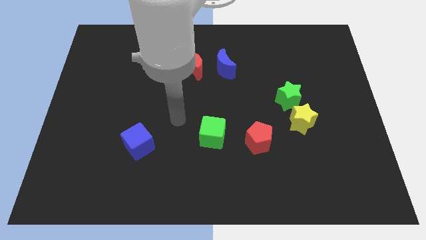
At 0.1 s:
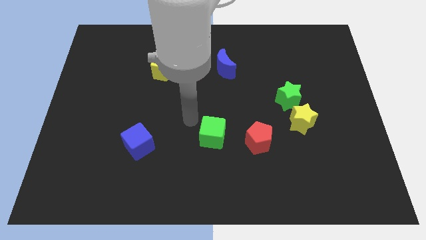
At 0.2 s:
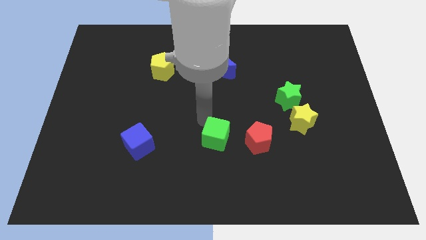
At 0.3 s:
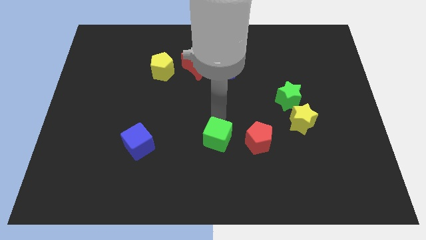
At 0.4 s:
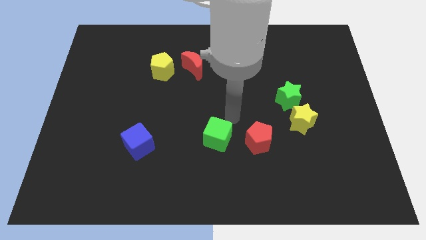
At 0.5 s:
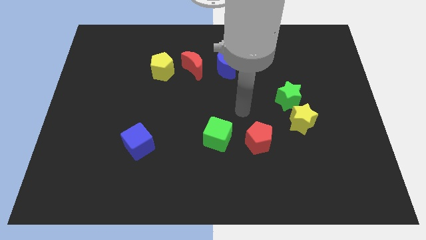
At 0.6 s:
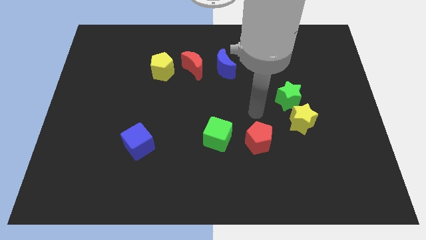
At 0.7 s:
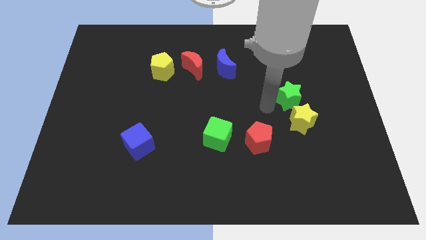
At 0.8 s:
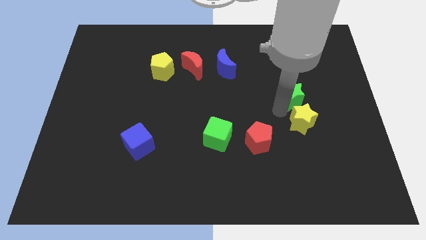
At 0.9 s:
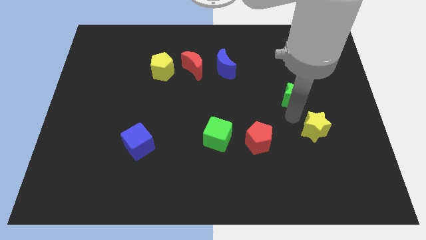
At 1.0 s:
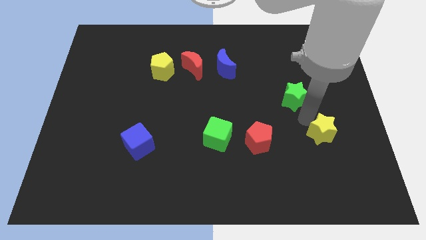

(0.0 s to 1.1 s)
pull the green star apart from the yellow star

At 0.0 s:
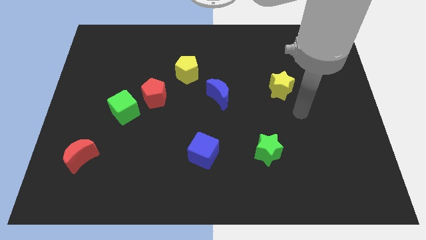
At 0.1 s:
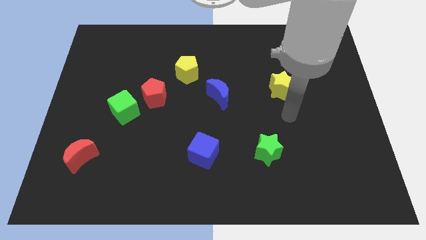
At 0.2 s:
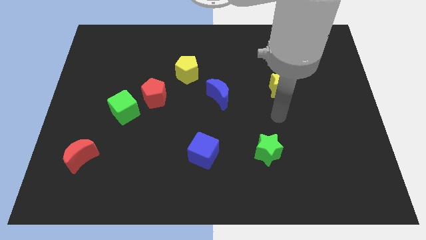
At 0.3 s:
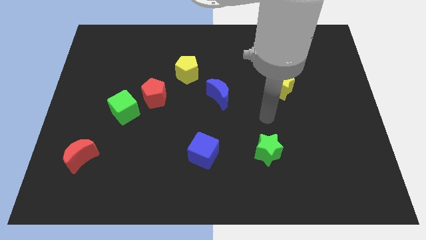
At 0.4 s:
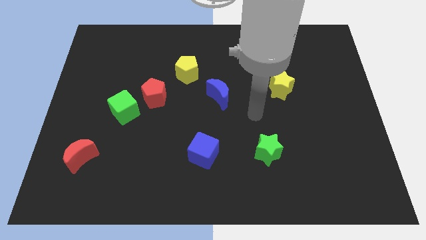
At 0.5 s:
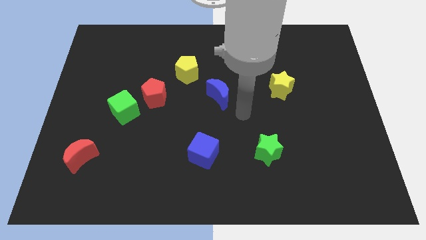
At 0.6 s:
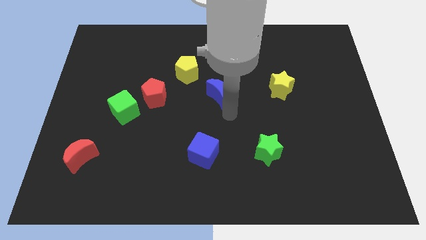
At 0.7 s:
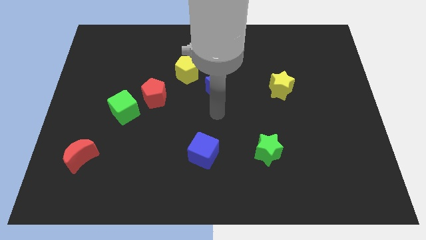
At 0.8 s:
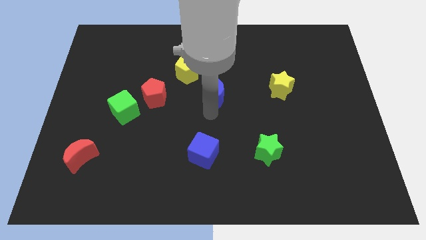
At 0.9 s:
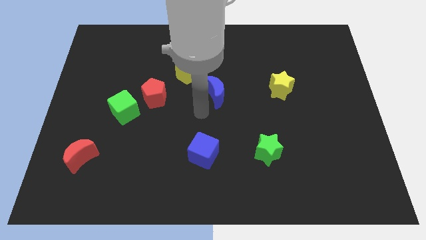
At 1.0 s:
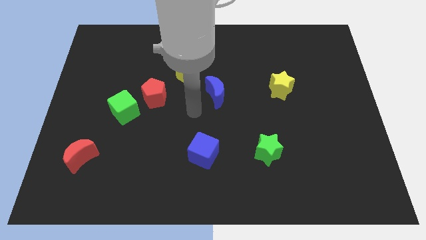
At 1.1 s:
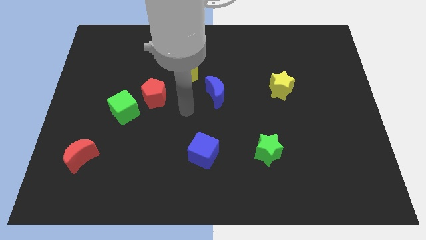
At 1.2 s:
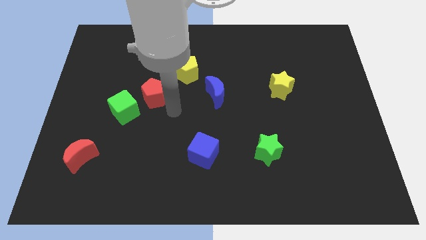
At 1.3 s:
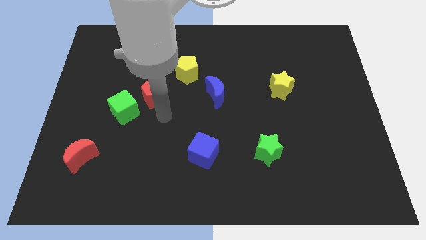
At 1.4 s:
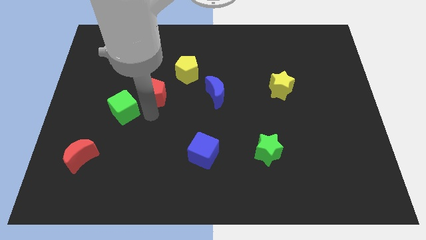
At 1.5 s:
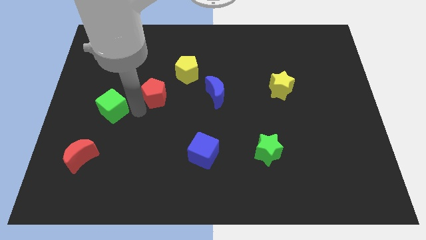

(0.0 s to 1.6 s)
move the red pentagon away from the green cube

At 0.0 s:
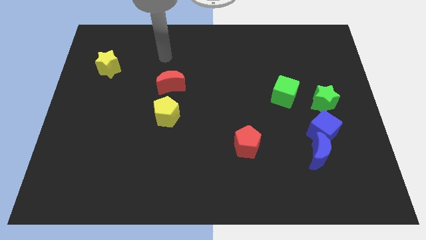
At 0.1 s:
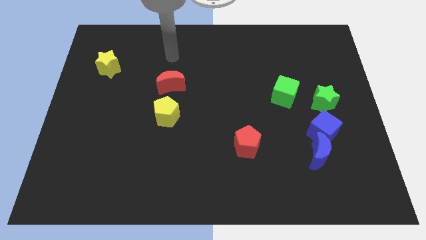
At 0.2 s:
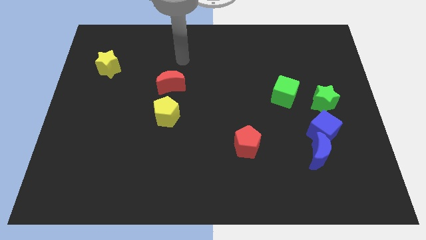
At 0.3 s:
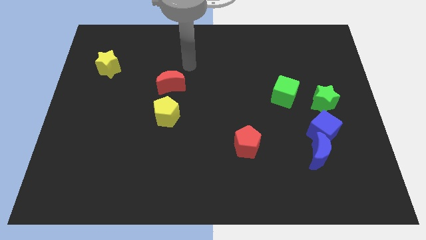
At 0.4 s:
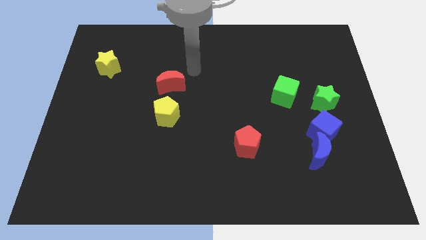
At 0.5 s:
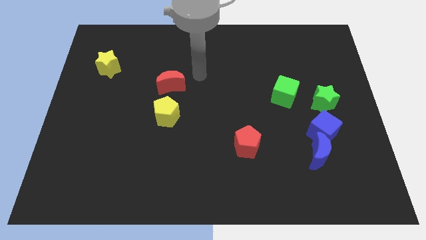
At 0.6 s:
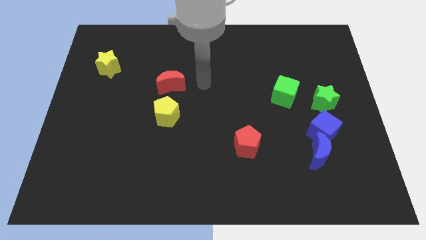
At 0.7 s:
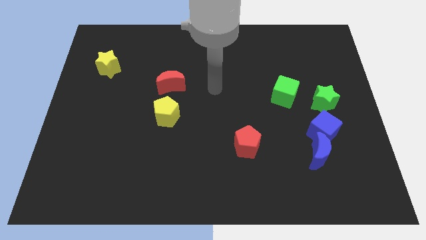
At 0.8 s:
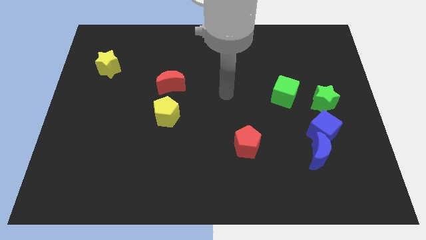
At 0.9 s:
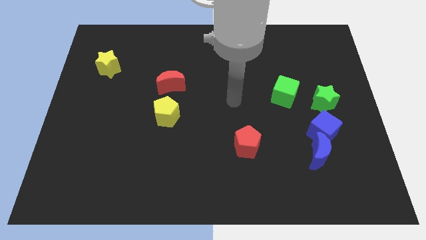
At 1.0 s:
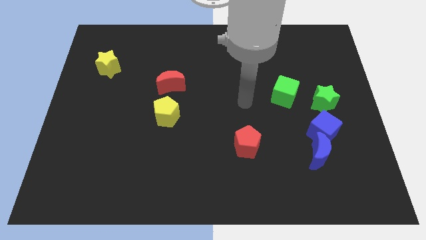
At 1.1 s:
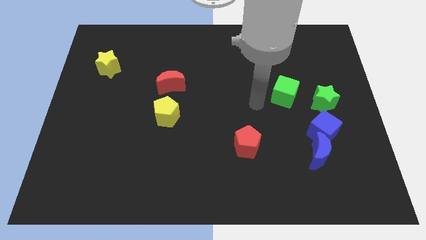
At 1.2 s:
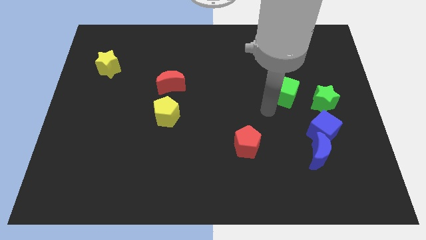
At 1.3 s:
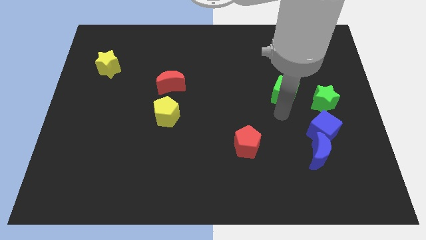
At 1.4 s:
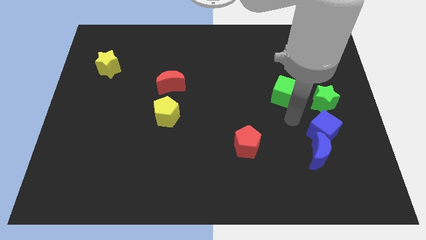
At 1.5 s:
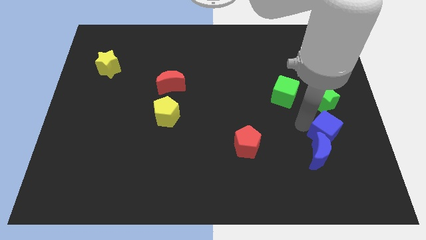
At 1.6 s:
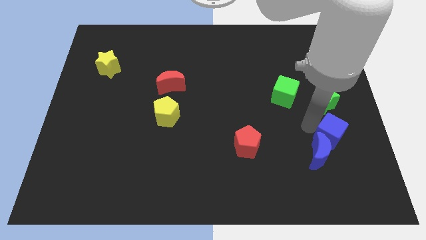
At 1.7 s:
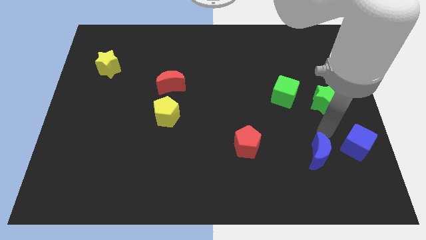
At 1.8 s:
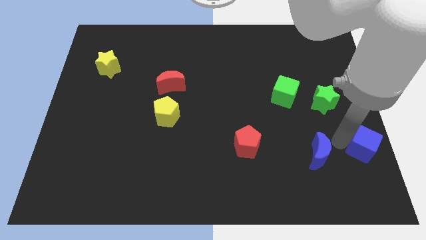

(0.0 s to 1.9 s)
move the blue moon away from the blue cube

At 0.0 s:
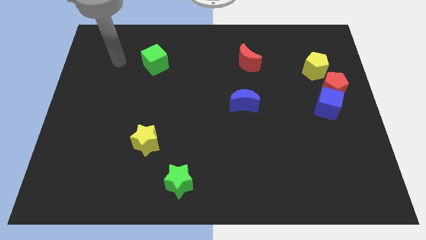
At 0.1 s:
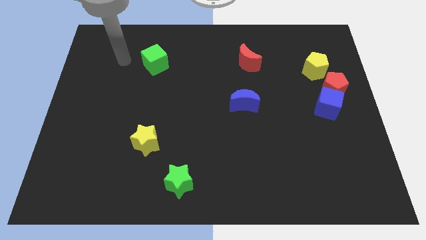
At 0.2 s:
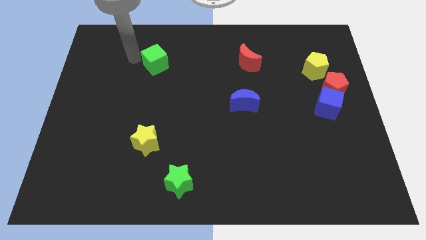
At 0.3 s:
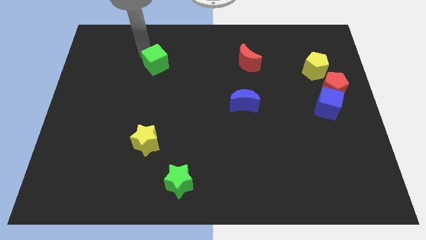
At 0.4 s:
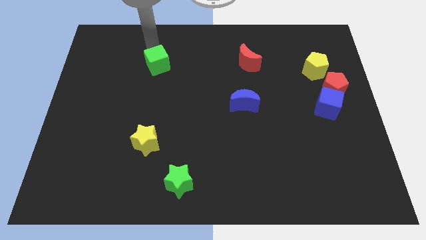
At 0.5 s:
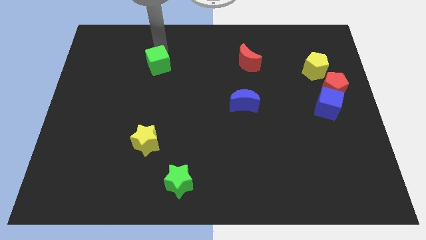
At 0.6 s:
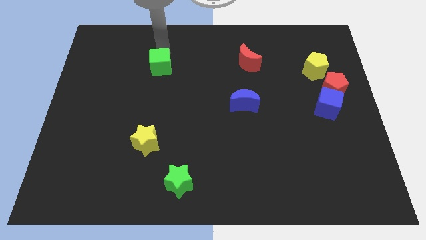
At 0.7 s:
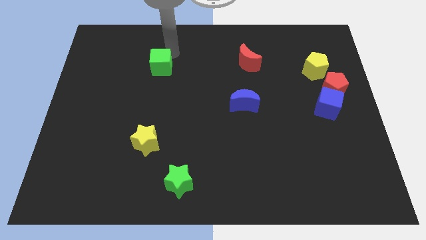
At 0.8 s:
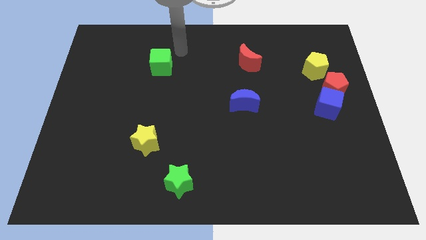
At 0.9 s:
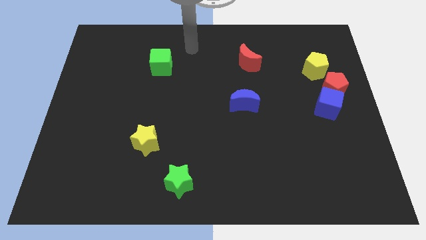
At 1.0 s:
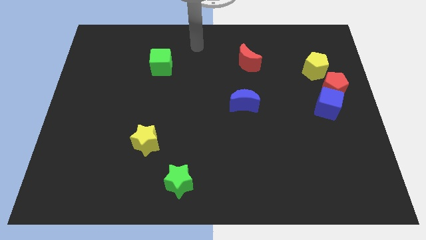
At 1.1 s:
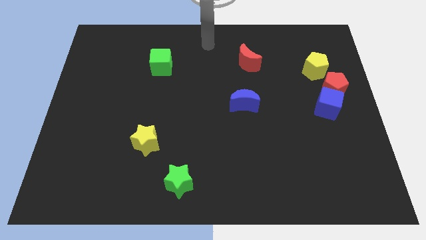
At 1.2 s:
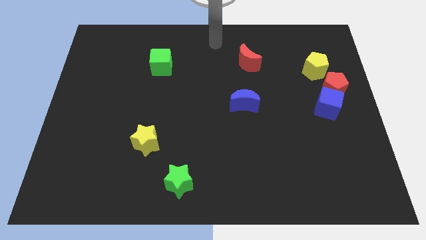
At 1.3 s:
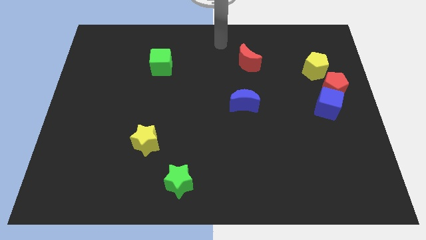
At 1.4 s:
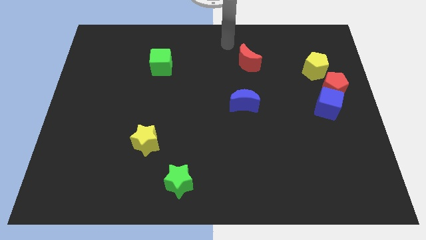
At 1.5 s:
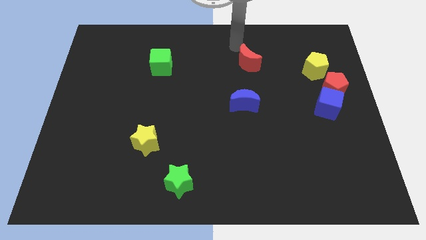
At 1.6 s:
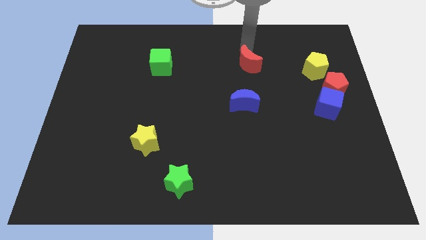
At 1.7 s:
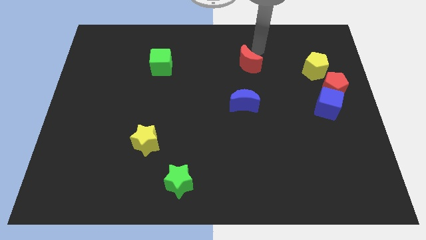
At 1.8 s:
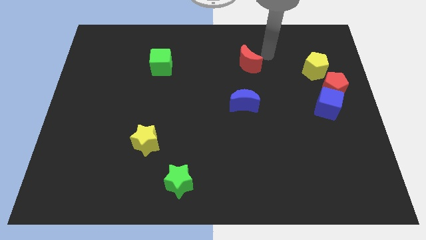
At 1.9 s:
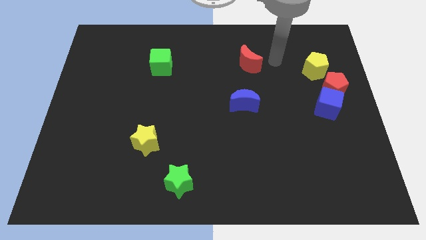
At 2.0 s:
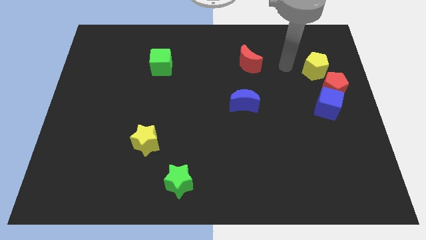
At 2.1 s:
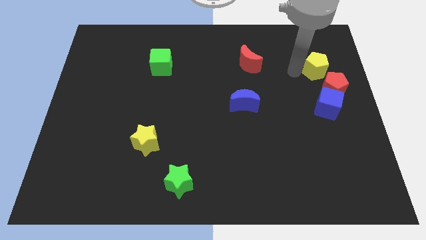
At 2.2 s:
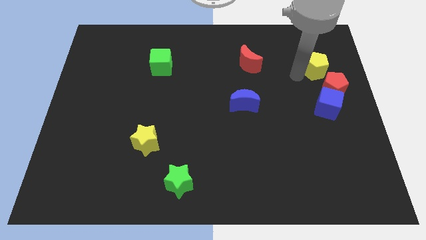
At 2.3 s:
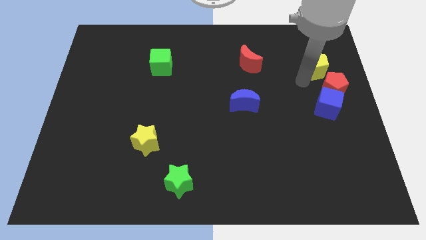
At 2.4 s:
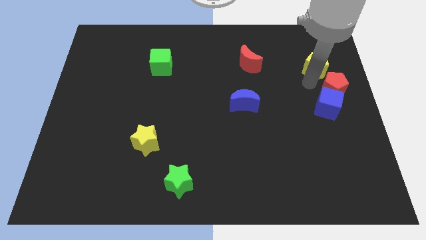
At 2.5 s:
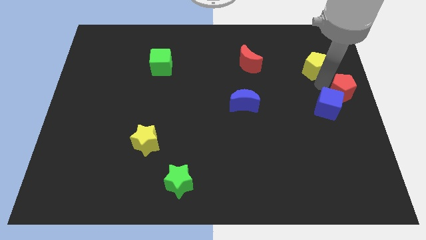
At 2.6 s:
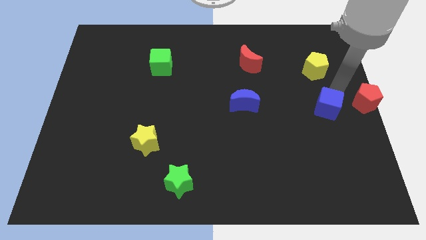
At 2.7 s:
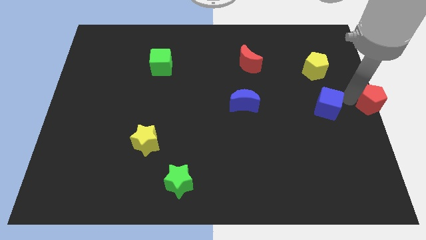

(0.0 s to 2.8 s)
move the blue cube away from the red pentagon

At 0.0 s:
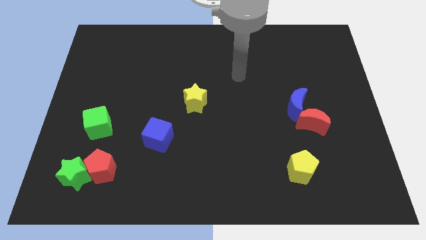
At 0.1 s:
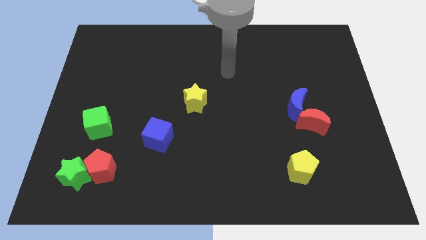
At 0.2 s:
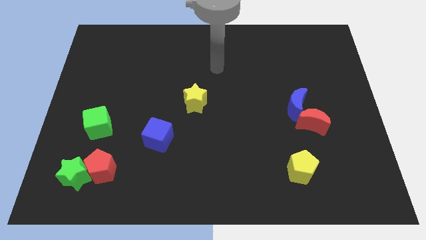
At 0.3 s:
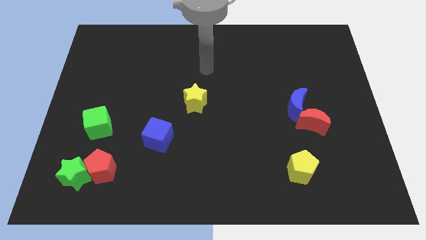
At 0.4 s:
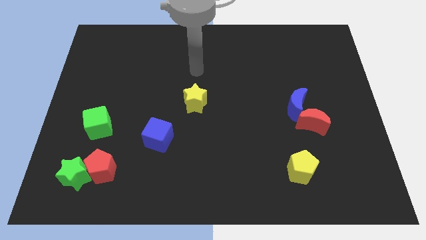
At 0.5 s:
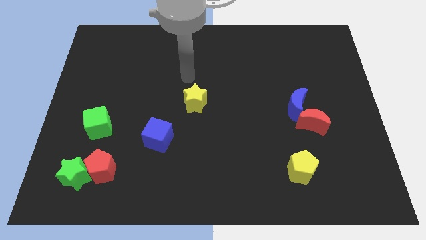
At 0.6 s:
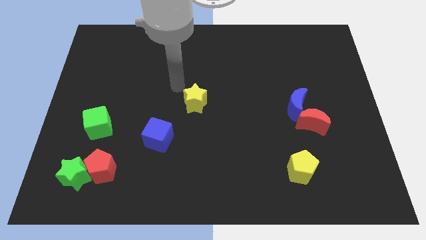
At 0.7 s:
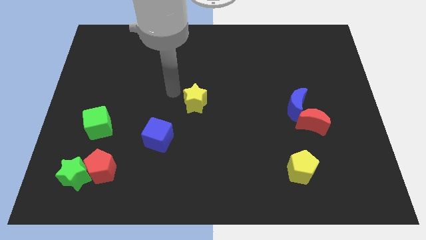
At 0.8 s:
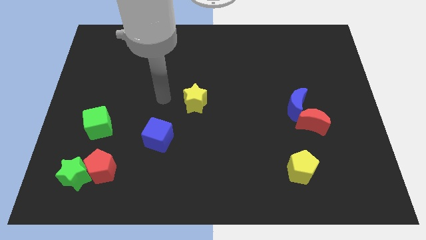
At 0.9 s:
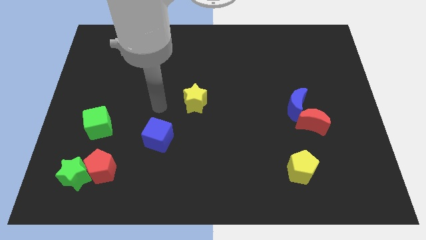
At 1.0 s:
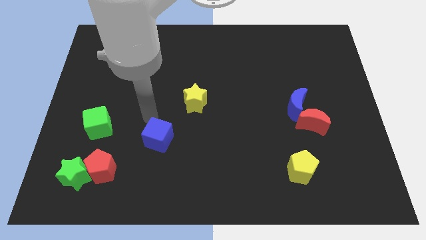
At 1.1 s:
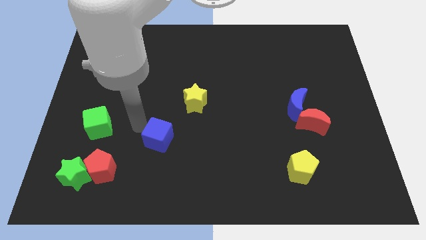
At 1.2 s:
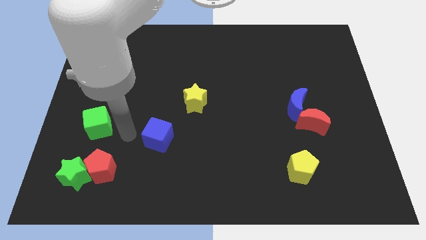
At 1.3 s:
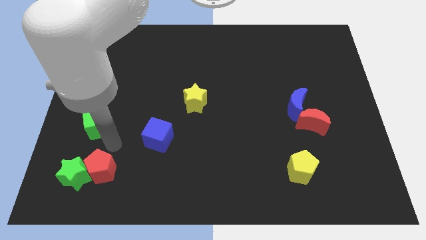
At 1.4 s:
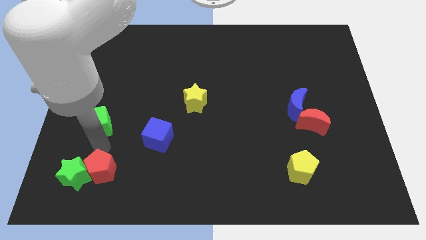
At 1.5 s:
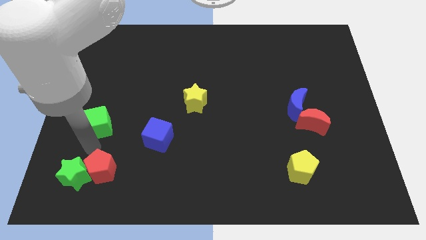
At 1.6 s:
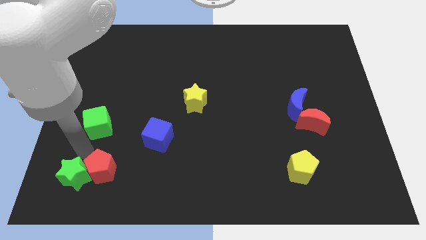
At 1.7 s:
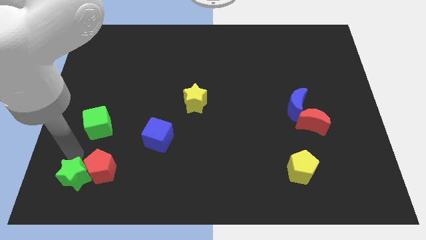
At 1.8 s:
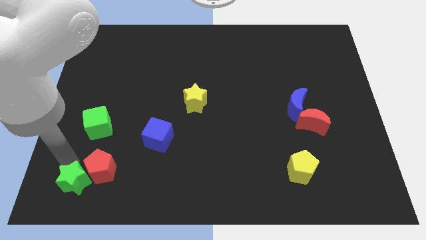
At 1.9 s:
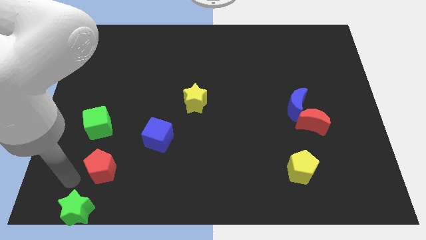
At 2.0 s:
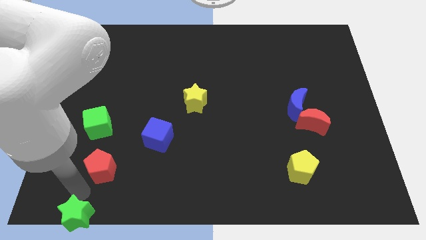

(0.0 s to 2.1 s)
separate the red pentagon from the green star
